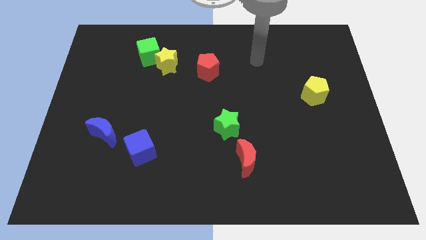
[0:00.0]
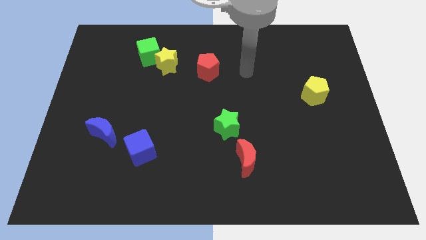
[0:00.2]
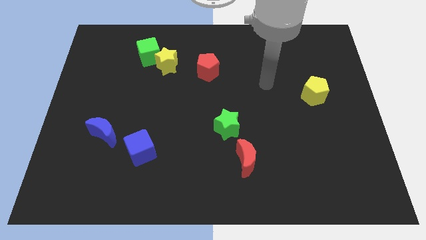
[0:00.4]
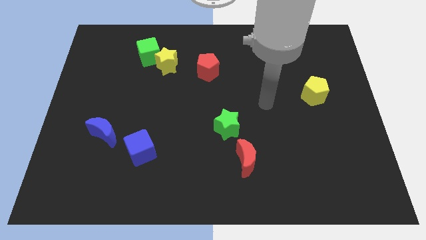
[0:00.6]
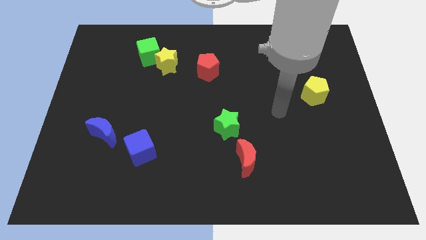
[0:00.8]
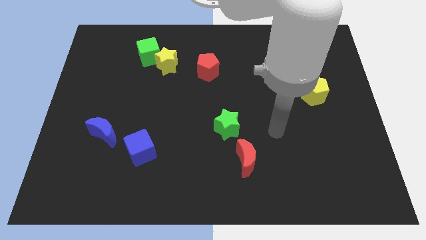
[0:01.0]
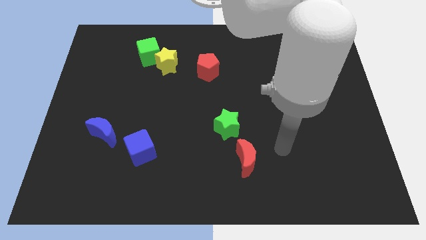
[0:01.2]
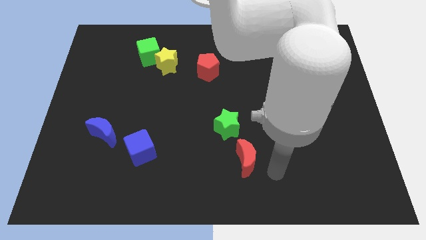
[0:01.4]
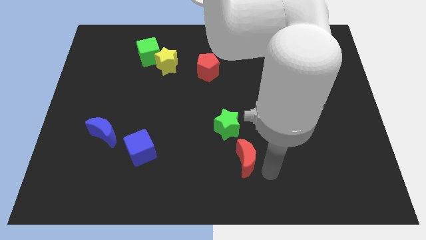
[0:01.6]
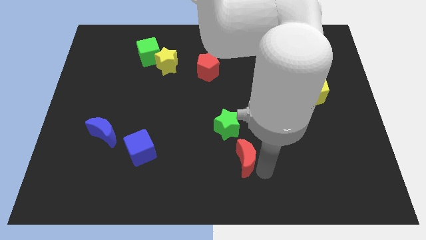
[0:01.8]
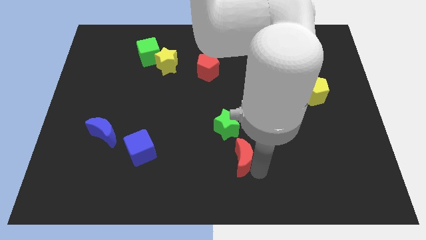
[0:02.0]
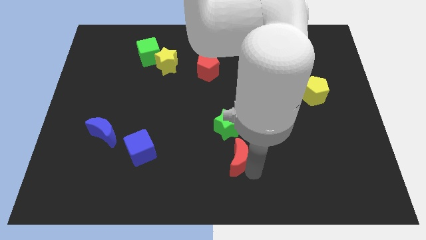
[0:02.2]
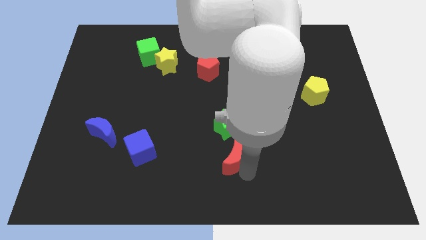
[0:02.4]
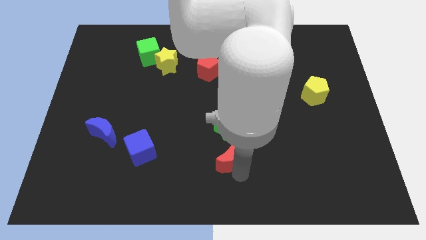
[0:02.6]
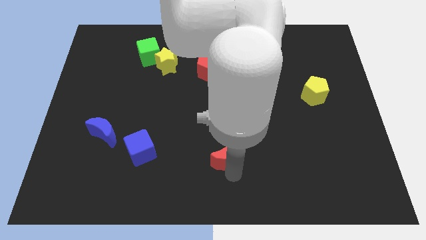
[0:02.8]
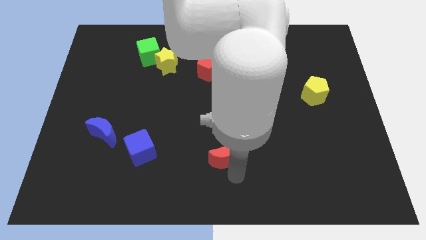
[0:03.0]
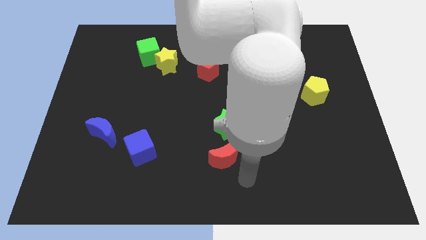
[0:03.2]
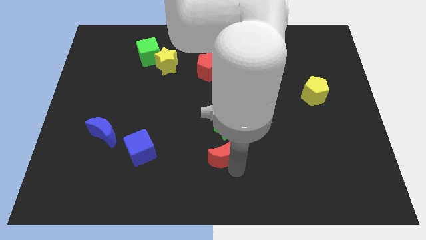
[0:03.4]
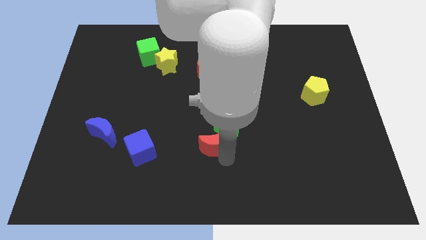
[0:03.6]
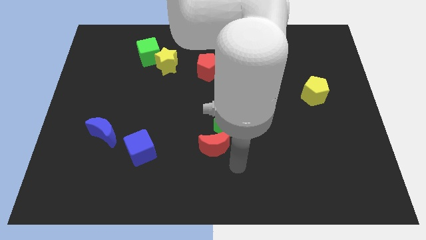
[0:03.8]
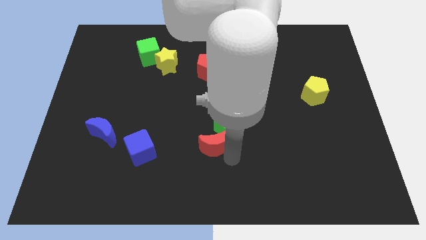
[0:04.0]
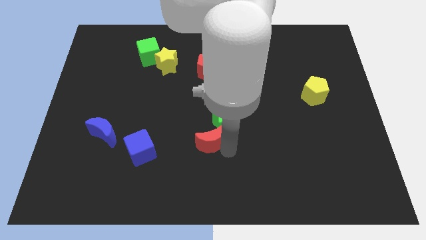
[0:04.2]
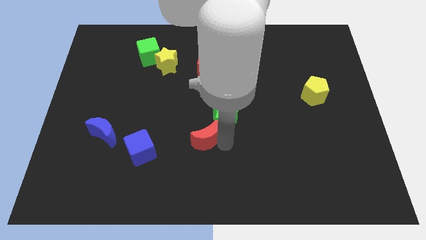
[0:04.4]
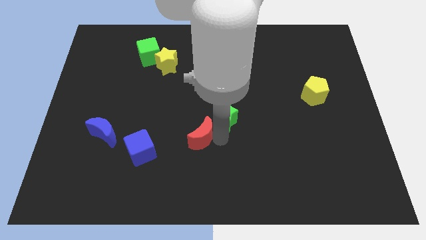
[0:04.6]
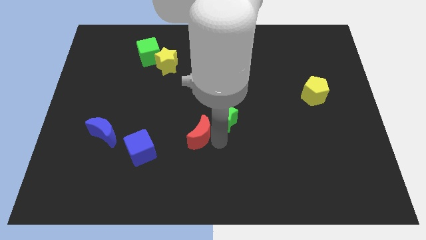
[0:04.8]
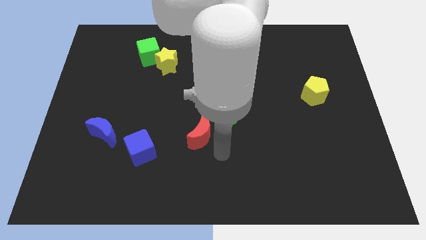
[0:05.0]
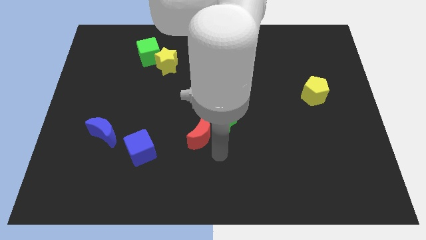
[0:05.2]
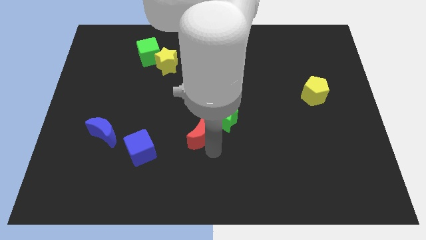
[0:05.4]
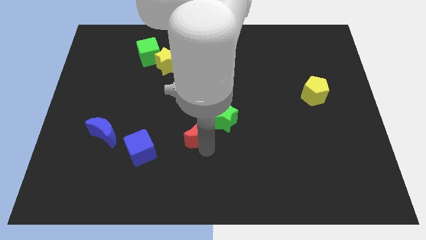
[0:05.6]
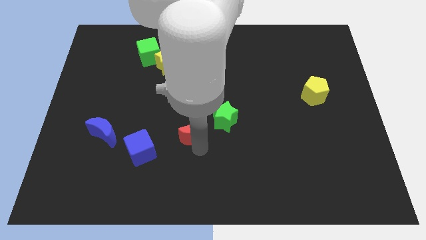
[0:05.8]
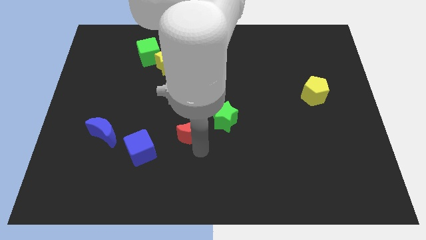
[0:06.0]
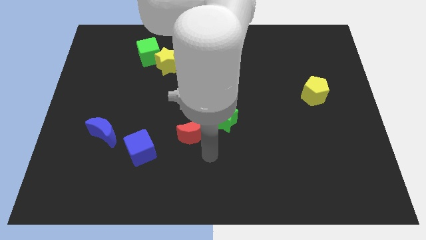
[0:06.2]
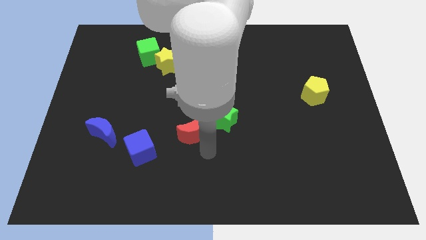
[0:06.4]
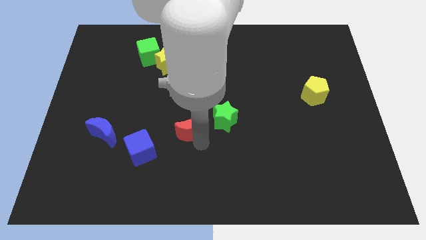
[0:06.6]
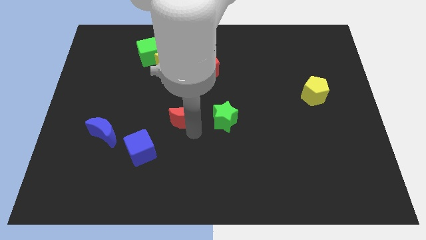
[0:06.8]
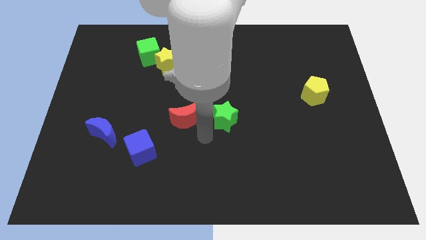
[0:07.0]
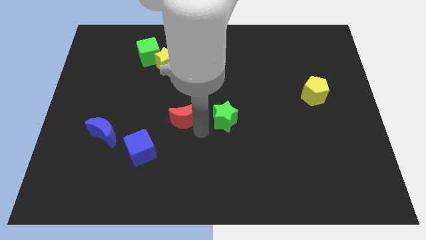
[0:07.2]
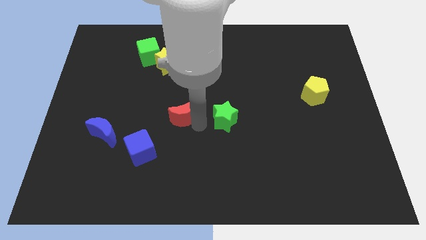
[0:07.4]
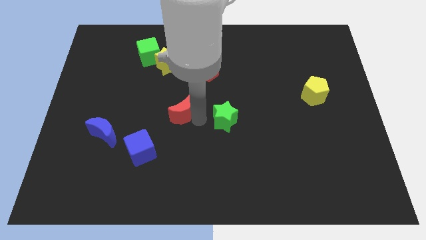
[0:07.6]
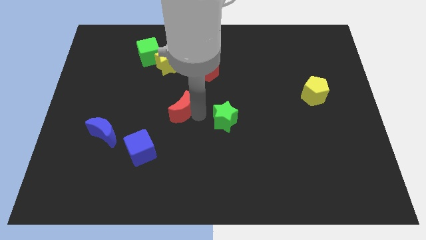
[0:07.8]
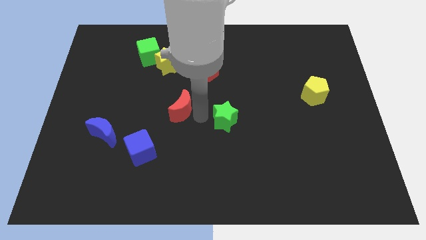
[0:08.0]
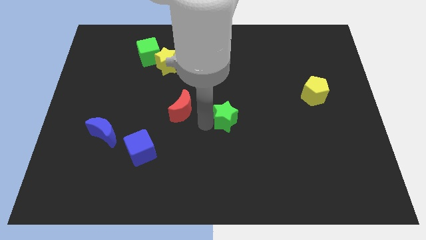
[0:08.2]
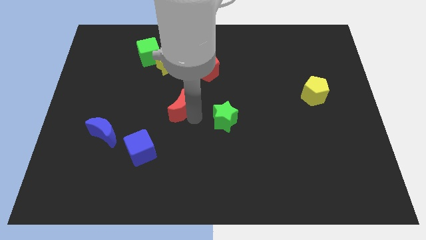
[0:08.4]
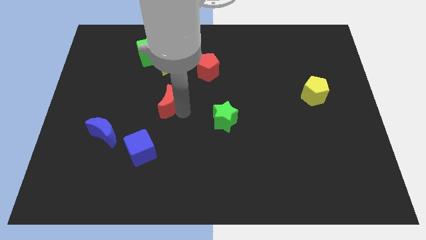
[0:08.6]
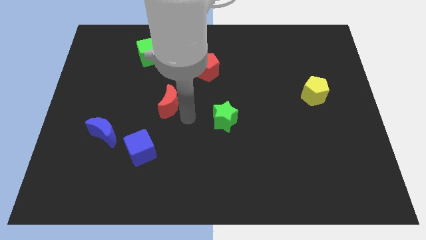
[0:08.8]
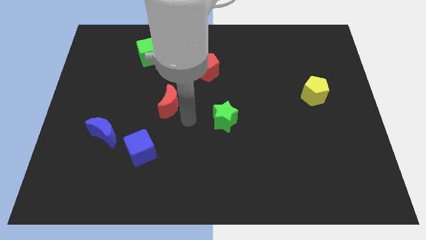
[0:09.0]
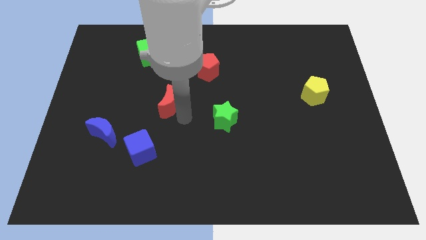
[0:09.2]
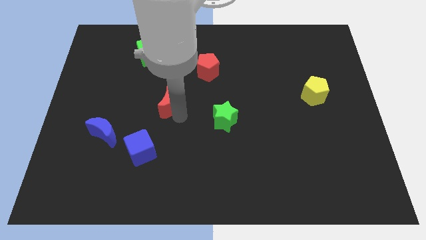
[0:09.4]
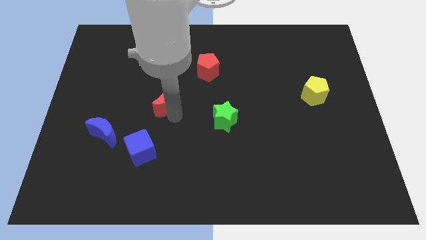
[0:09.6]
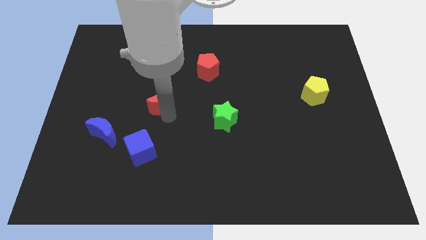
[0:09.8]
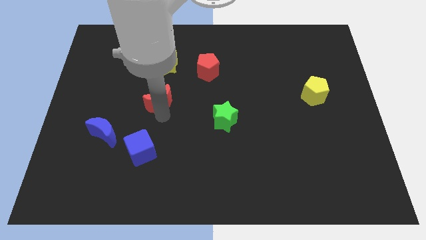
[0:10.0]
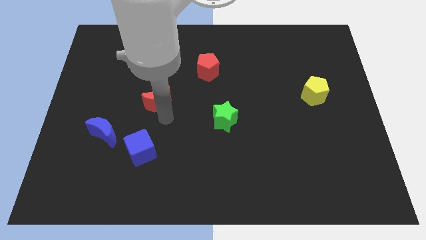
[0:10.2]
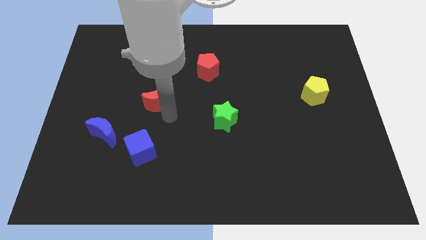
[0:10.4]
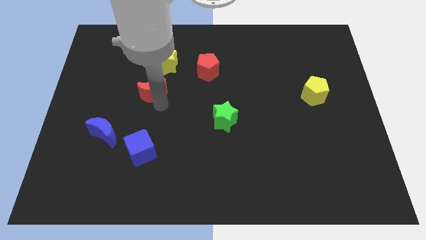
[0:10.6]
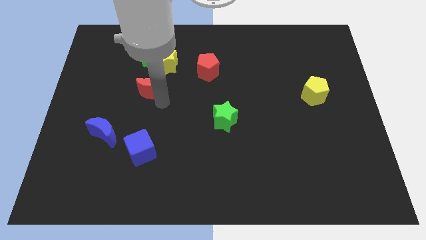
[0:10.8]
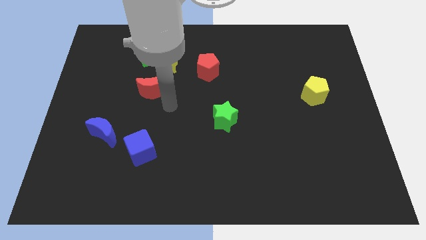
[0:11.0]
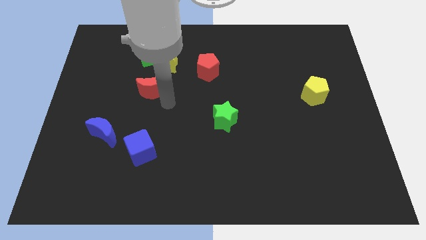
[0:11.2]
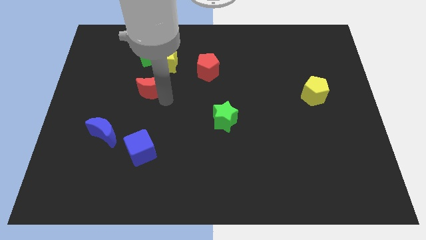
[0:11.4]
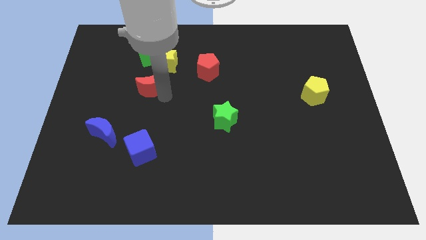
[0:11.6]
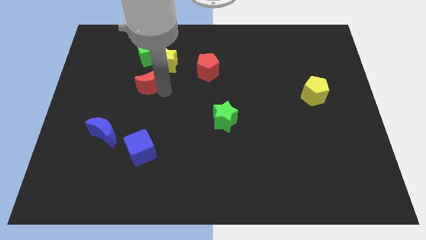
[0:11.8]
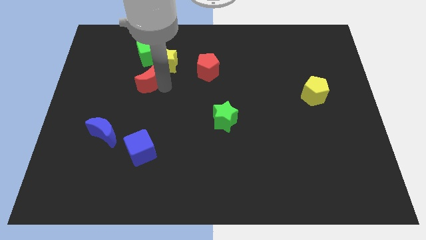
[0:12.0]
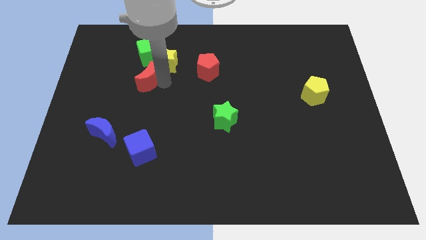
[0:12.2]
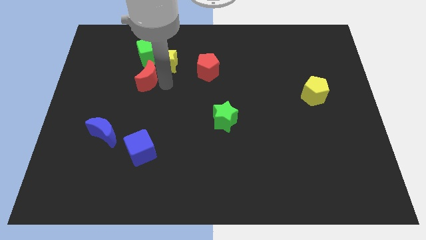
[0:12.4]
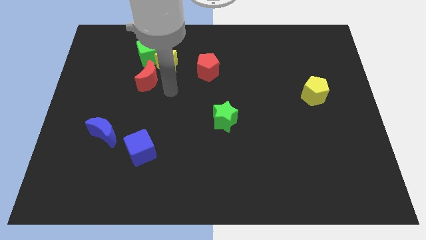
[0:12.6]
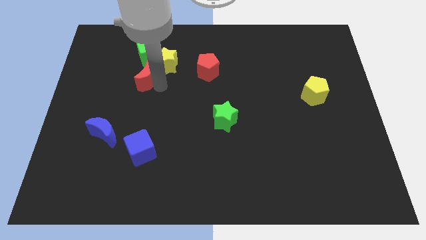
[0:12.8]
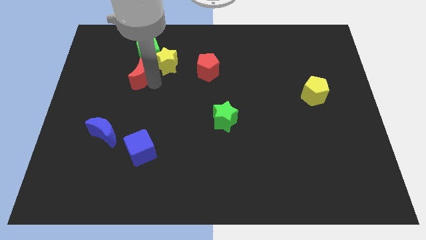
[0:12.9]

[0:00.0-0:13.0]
put the red moon to the bottom left side of the green cube
